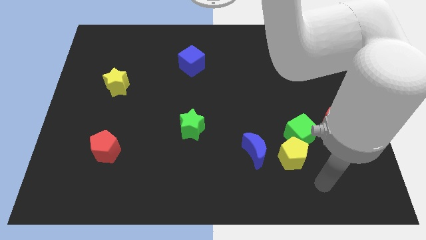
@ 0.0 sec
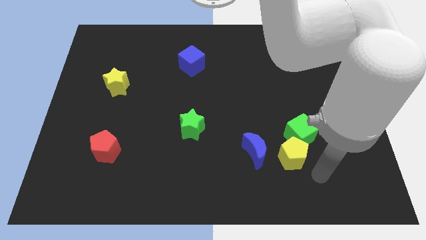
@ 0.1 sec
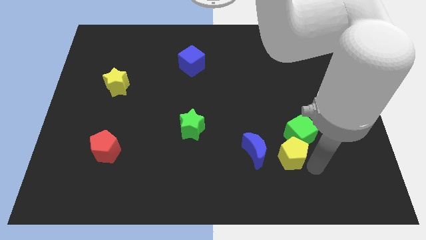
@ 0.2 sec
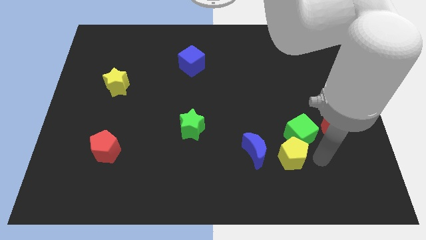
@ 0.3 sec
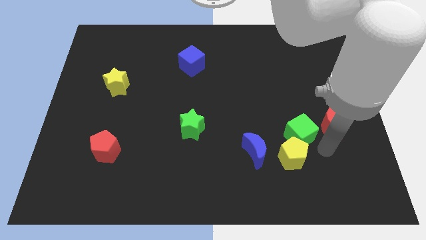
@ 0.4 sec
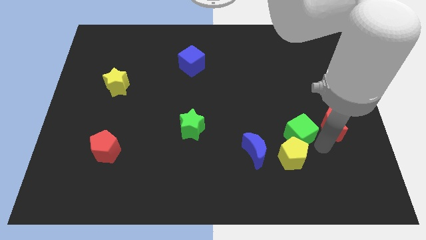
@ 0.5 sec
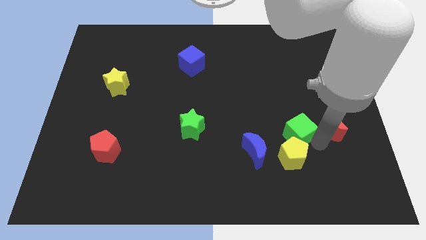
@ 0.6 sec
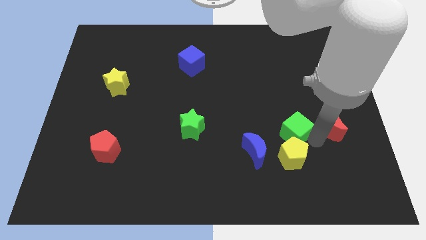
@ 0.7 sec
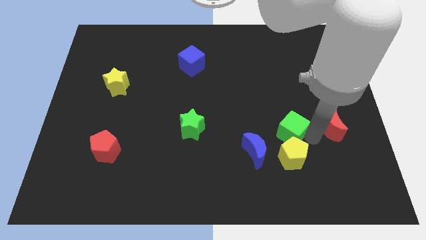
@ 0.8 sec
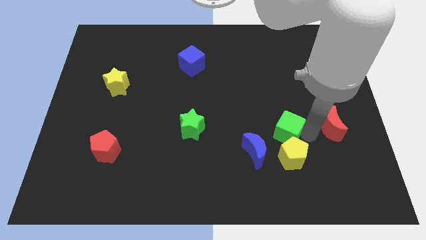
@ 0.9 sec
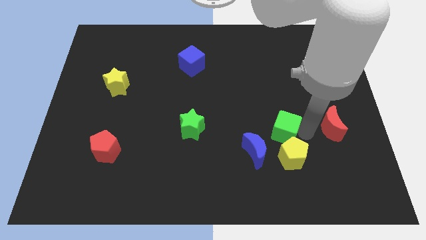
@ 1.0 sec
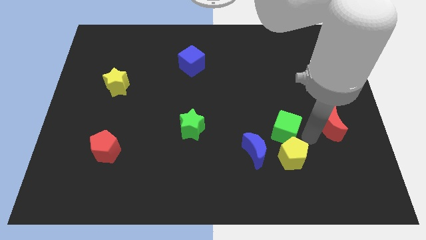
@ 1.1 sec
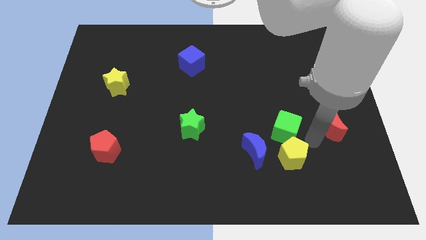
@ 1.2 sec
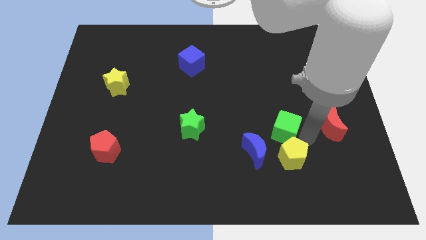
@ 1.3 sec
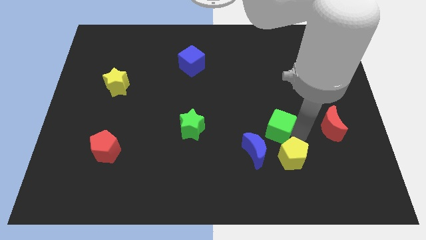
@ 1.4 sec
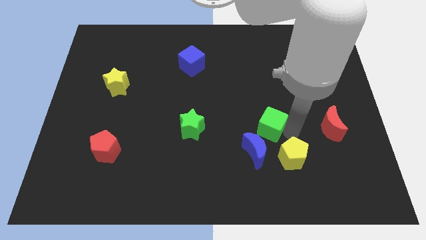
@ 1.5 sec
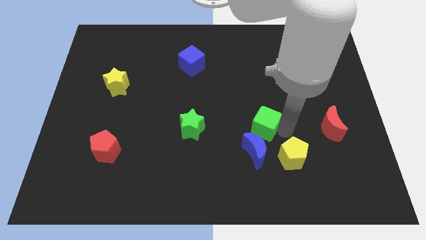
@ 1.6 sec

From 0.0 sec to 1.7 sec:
move the green cube away from the yellow pentagon and red moon

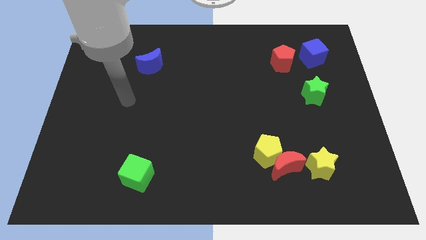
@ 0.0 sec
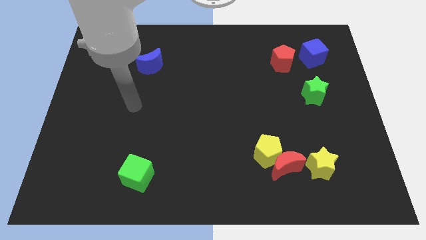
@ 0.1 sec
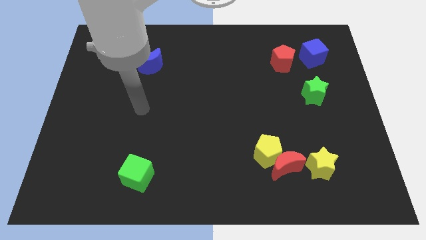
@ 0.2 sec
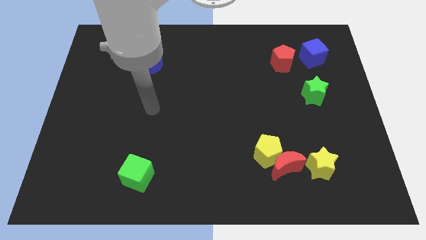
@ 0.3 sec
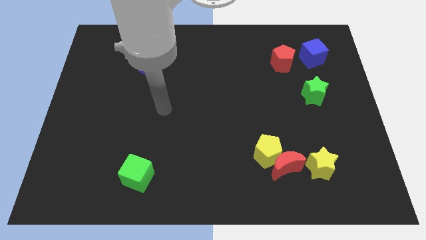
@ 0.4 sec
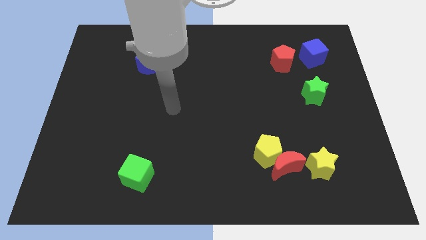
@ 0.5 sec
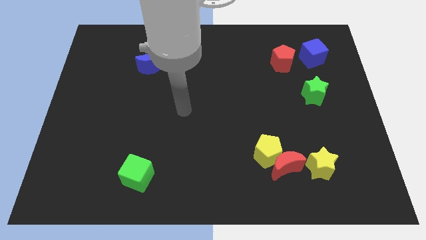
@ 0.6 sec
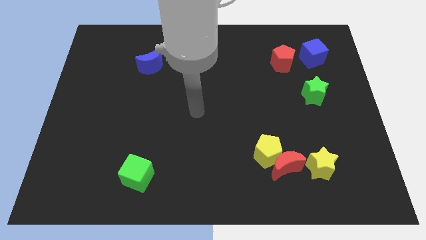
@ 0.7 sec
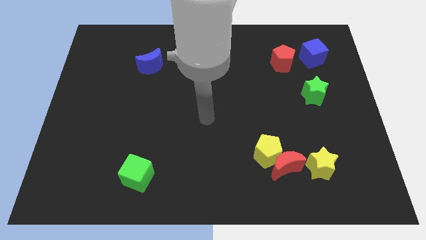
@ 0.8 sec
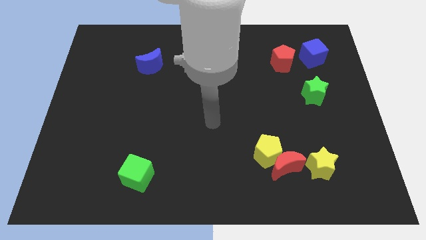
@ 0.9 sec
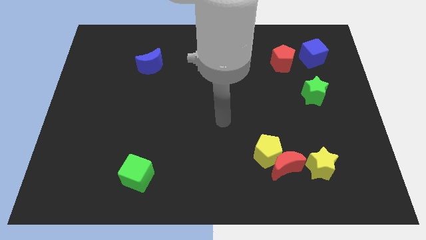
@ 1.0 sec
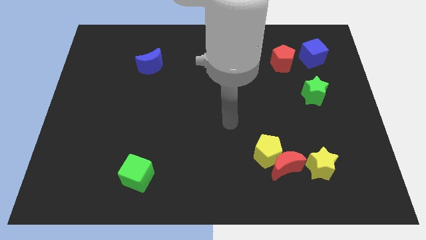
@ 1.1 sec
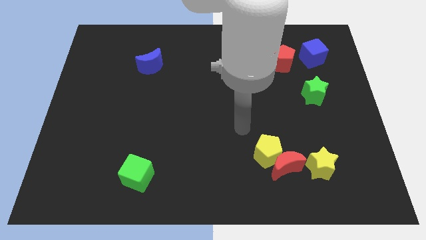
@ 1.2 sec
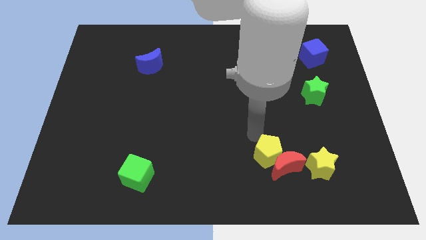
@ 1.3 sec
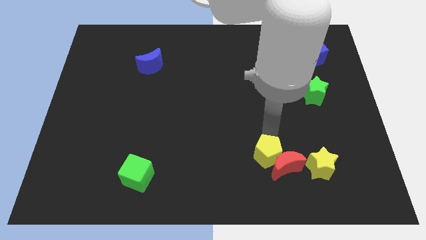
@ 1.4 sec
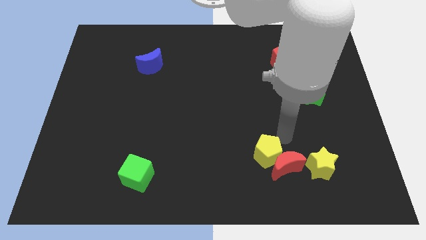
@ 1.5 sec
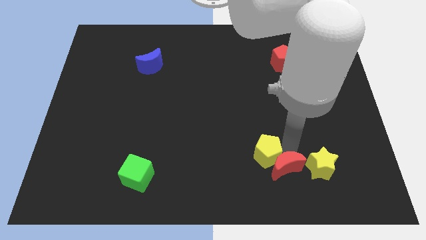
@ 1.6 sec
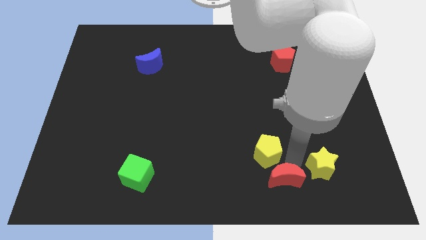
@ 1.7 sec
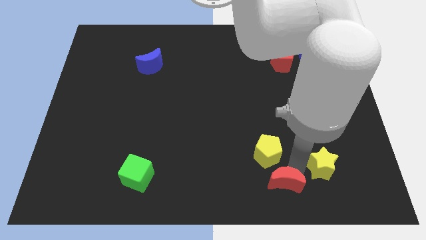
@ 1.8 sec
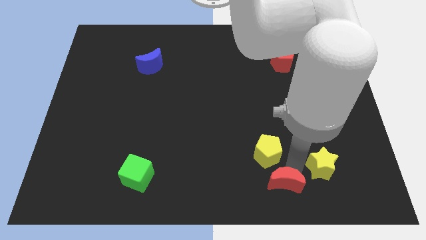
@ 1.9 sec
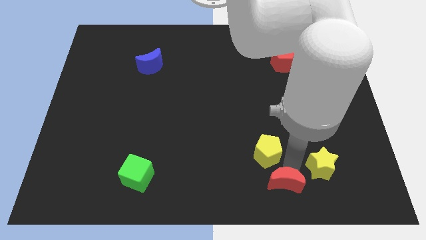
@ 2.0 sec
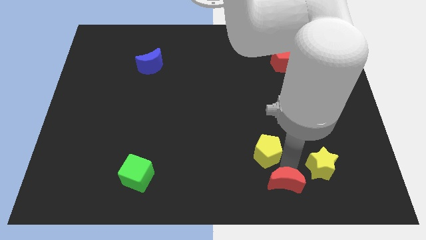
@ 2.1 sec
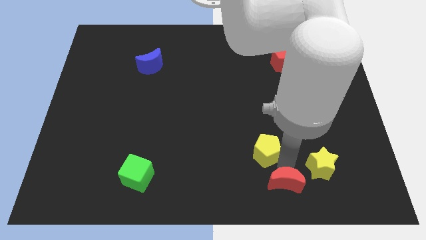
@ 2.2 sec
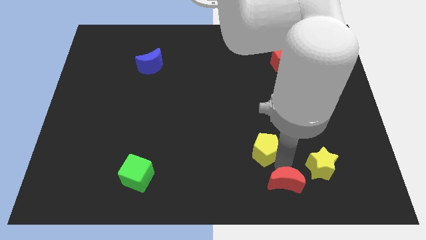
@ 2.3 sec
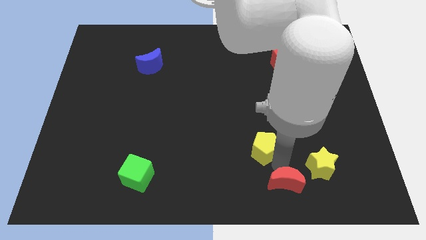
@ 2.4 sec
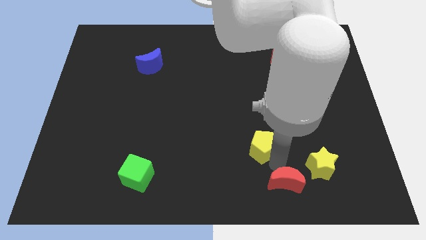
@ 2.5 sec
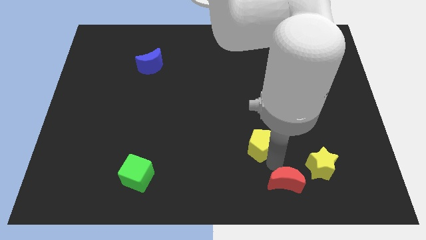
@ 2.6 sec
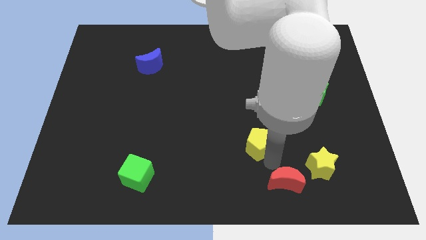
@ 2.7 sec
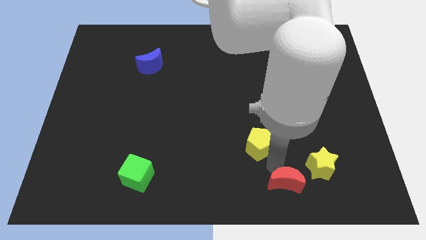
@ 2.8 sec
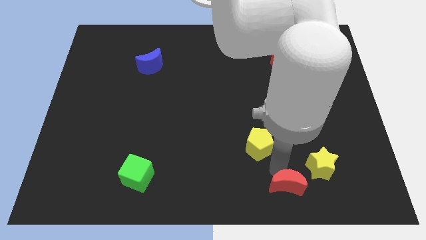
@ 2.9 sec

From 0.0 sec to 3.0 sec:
move the yellow pentagon away from the red moon

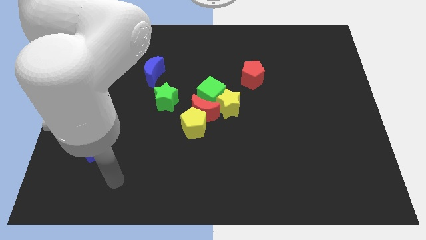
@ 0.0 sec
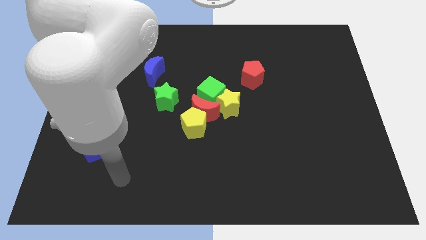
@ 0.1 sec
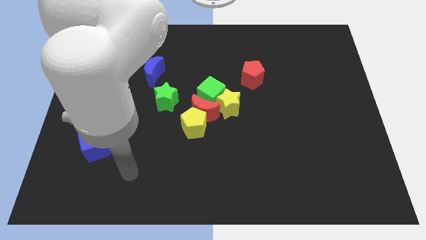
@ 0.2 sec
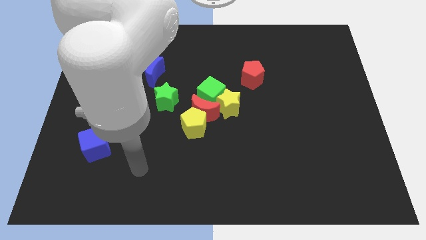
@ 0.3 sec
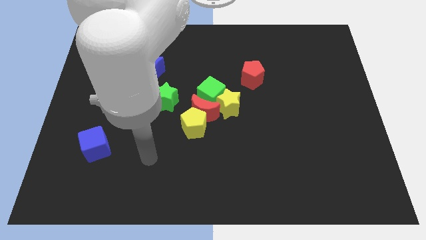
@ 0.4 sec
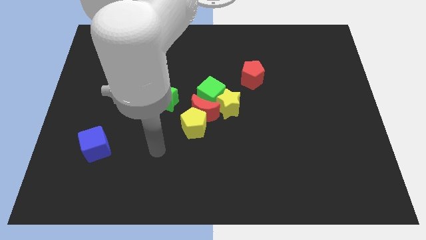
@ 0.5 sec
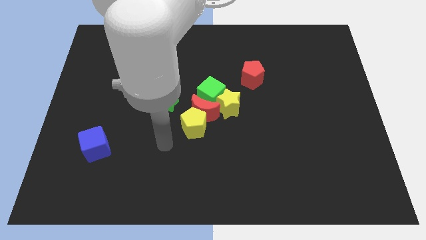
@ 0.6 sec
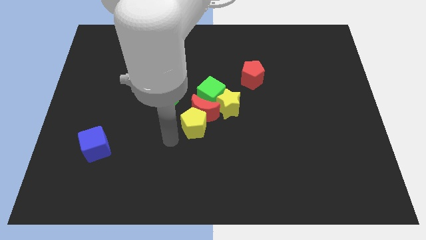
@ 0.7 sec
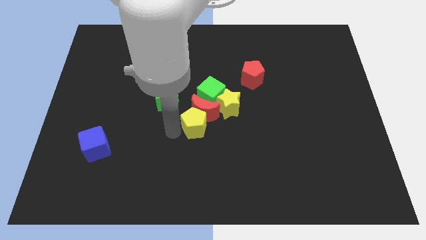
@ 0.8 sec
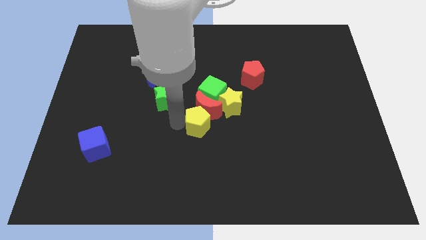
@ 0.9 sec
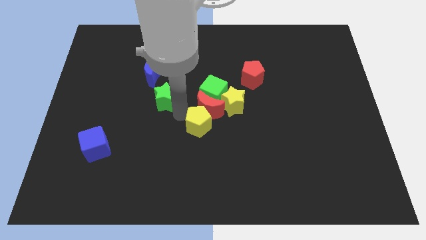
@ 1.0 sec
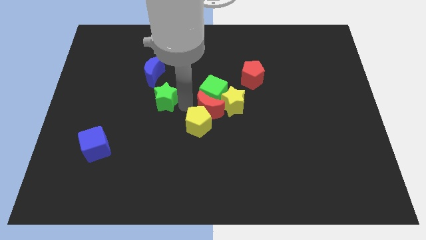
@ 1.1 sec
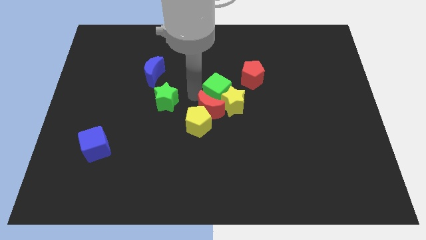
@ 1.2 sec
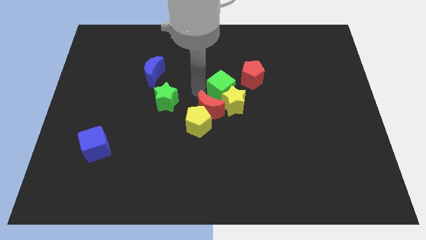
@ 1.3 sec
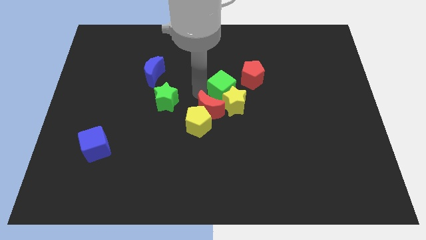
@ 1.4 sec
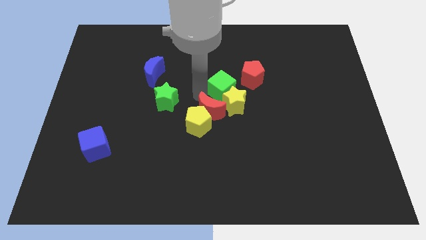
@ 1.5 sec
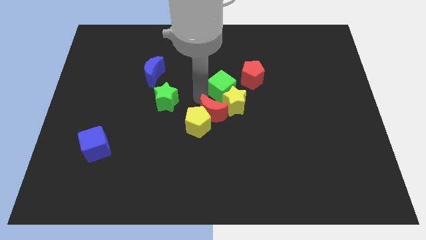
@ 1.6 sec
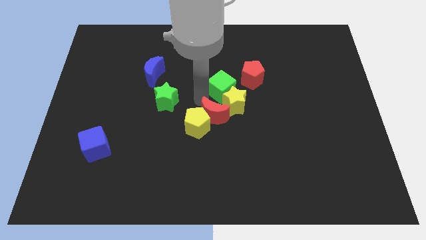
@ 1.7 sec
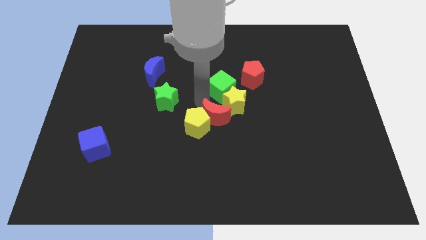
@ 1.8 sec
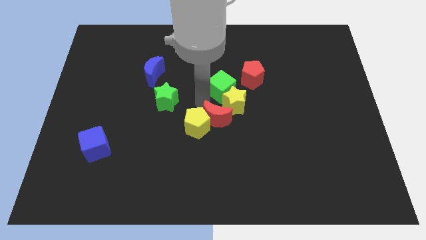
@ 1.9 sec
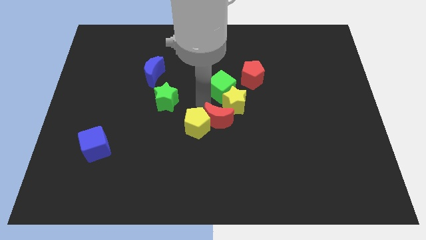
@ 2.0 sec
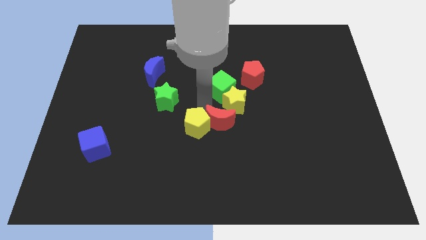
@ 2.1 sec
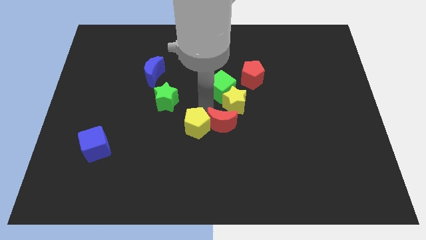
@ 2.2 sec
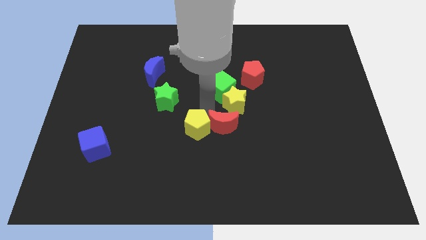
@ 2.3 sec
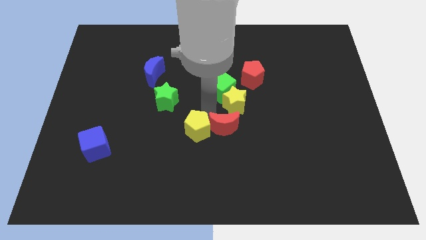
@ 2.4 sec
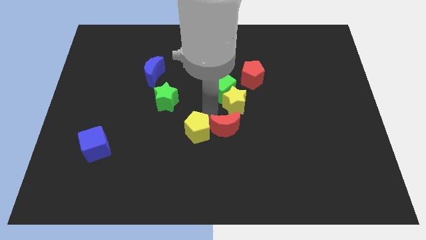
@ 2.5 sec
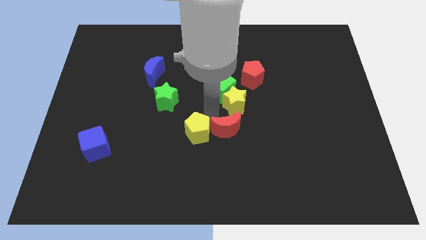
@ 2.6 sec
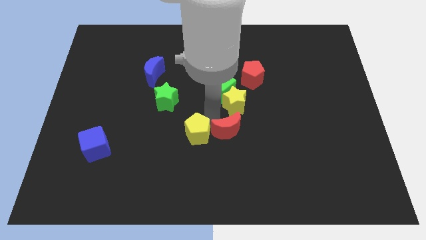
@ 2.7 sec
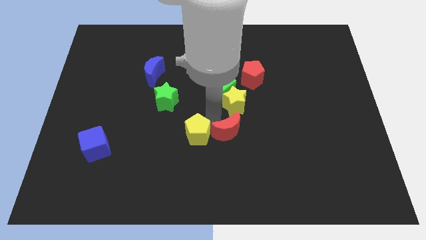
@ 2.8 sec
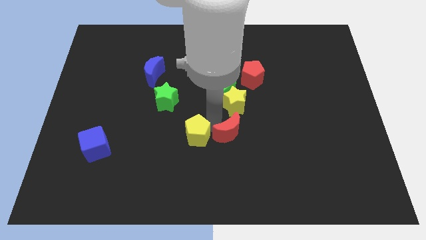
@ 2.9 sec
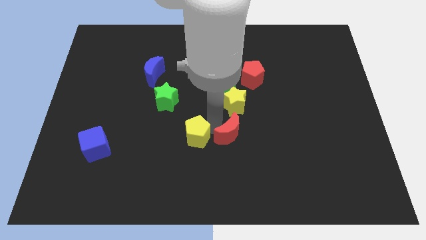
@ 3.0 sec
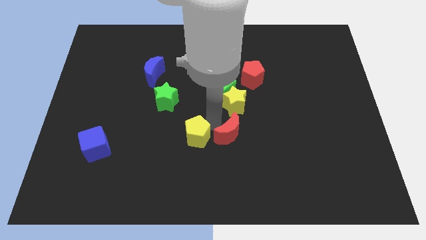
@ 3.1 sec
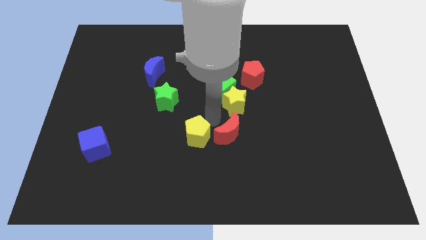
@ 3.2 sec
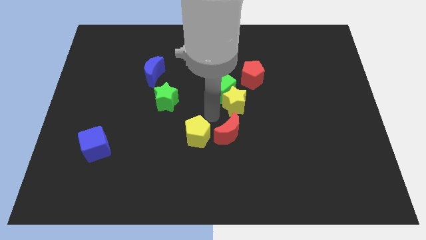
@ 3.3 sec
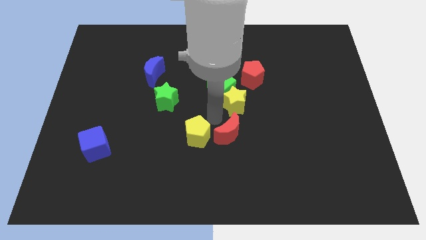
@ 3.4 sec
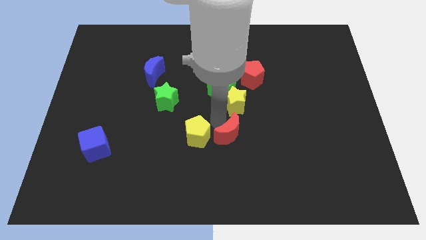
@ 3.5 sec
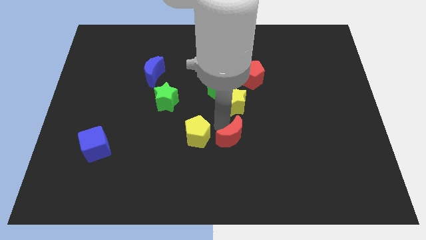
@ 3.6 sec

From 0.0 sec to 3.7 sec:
pull the red moon apart from the group

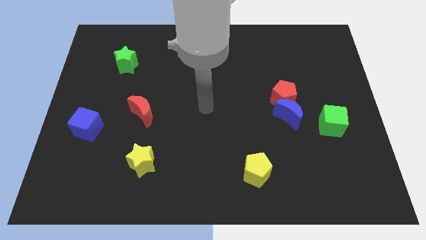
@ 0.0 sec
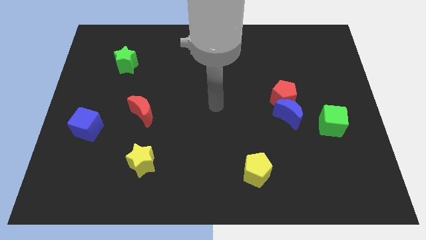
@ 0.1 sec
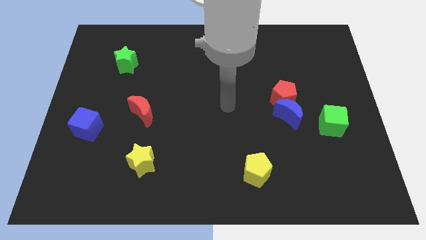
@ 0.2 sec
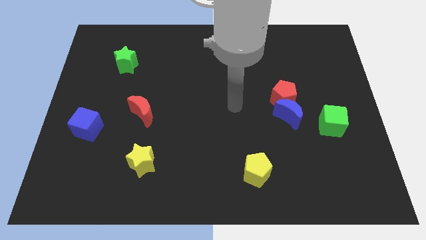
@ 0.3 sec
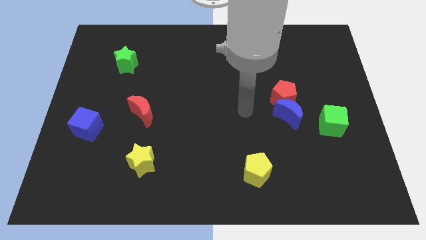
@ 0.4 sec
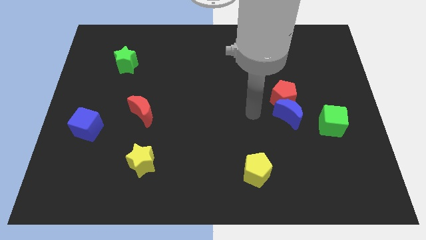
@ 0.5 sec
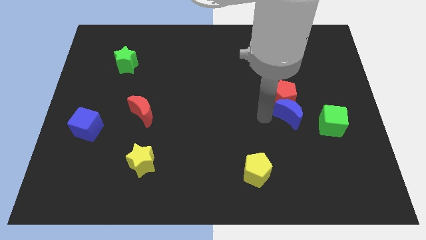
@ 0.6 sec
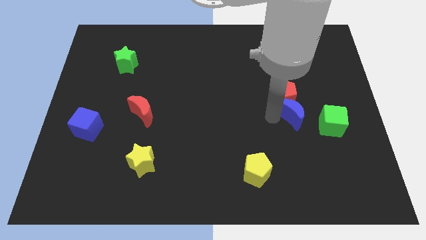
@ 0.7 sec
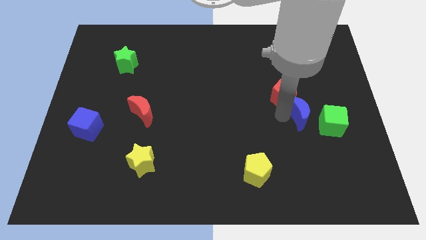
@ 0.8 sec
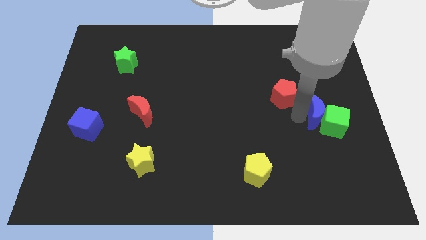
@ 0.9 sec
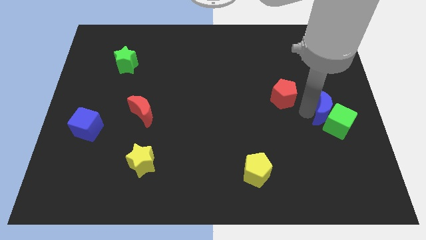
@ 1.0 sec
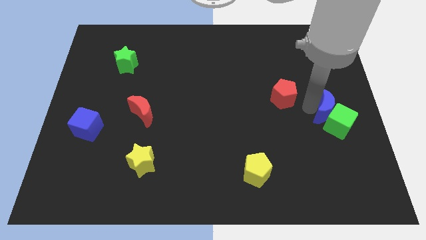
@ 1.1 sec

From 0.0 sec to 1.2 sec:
pull the red pentagon apart from the blue moon
